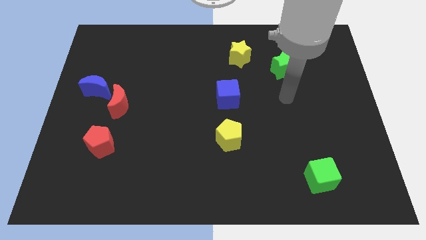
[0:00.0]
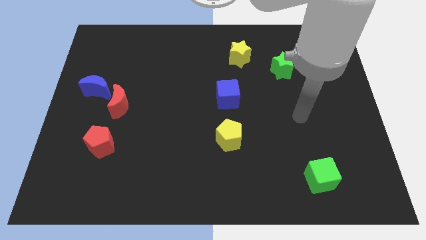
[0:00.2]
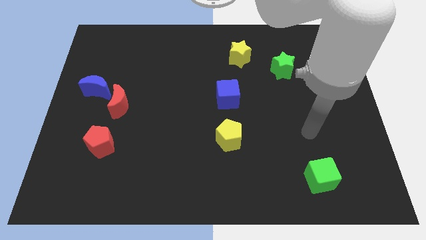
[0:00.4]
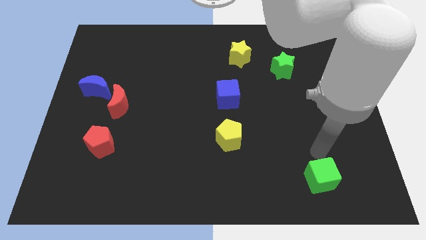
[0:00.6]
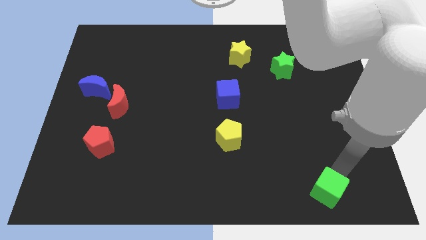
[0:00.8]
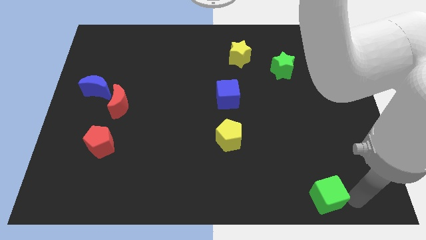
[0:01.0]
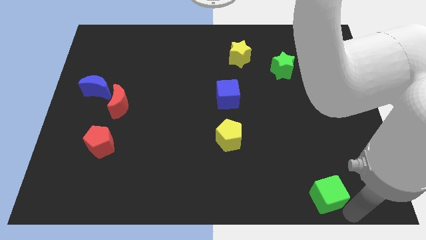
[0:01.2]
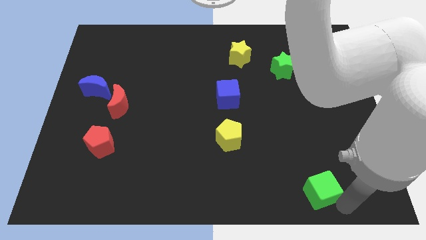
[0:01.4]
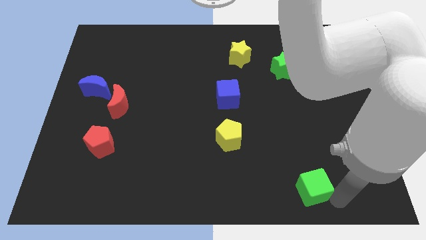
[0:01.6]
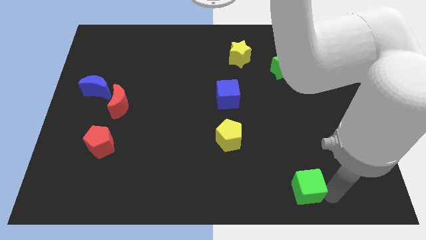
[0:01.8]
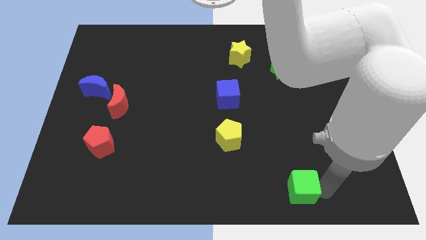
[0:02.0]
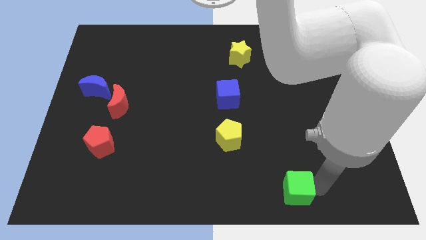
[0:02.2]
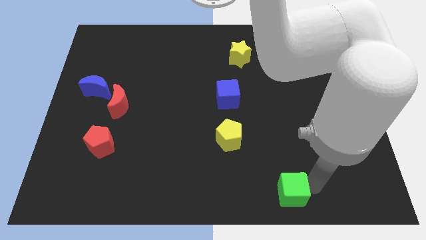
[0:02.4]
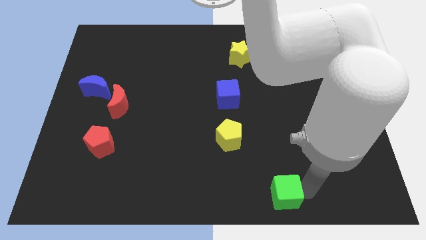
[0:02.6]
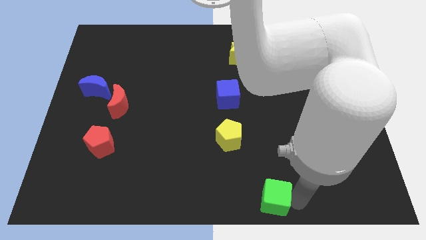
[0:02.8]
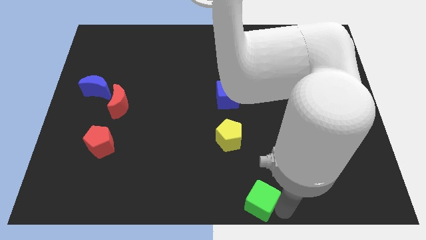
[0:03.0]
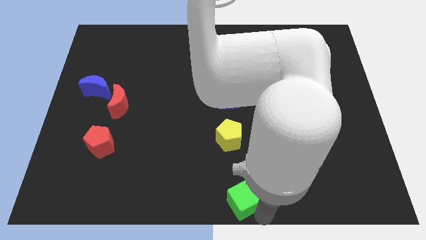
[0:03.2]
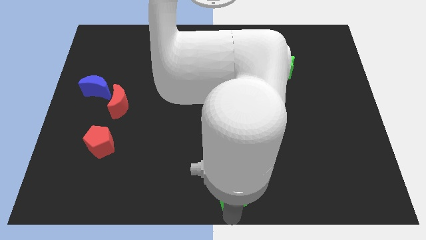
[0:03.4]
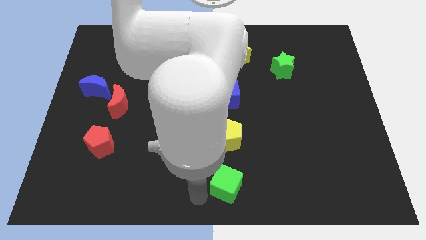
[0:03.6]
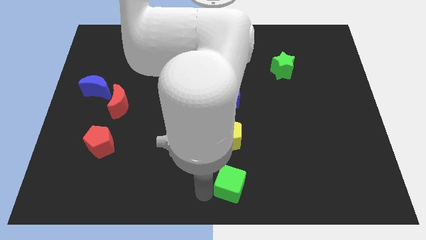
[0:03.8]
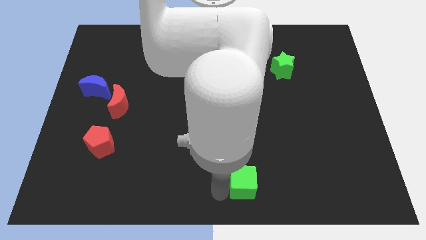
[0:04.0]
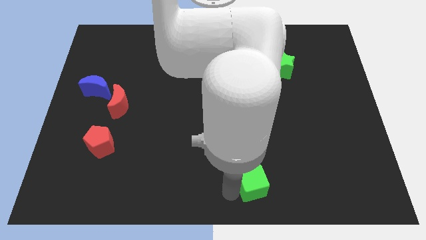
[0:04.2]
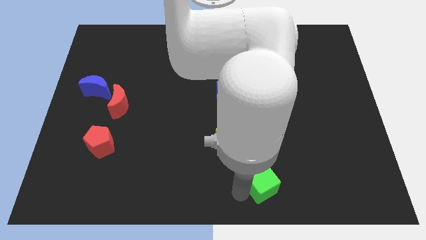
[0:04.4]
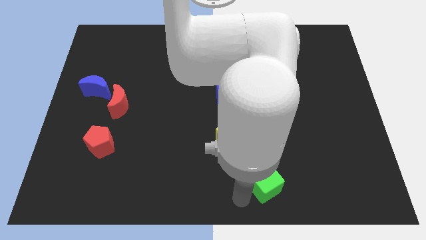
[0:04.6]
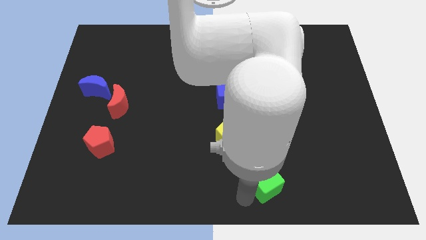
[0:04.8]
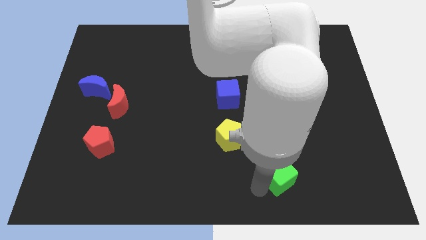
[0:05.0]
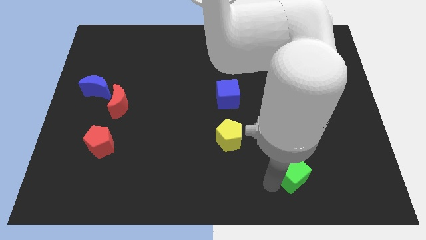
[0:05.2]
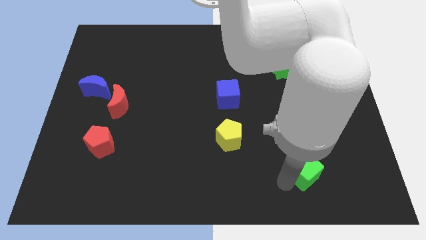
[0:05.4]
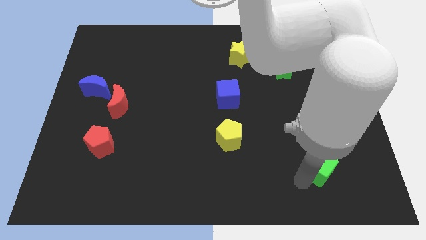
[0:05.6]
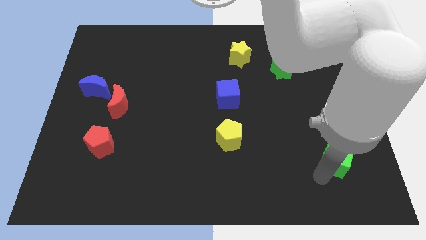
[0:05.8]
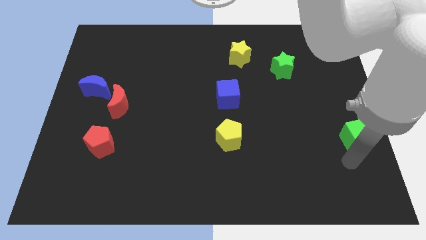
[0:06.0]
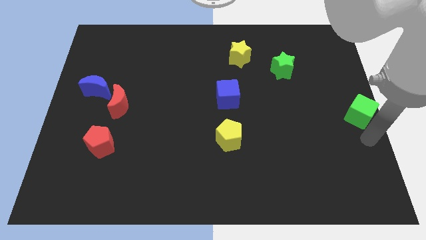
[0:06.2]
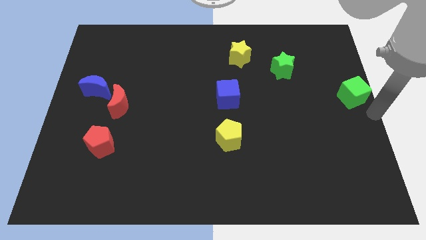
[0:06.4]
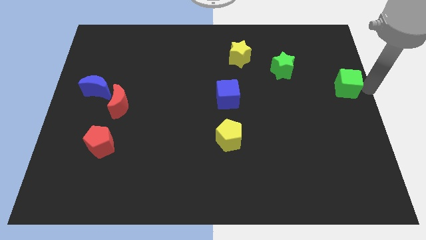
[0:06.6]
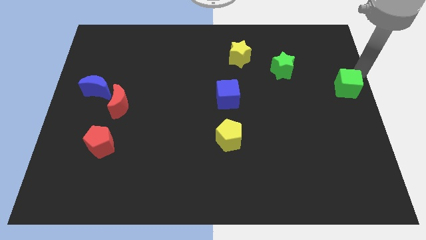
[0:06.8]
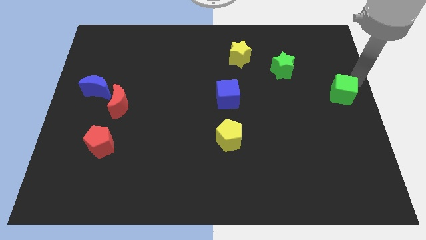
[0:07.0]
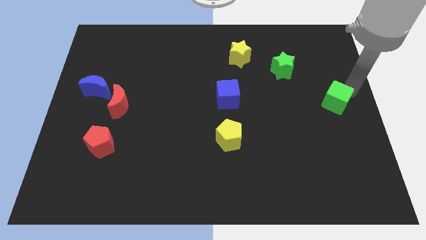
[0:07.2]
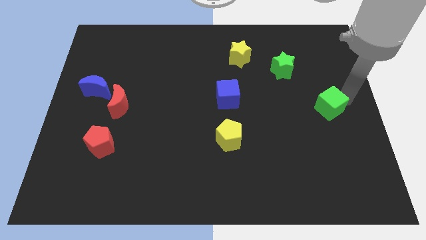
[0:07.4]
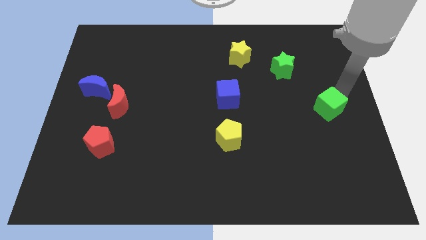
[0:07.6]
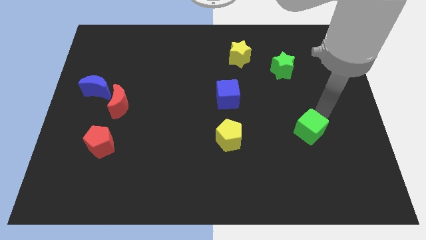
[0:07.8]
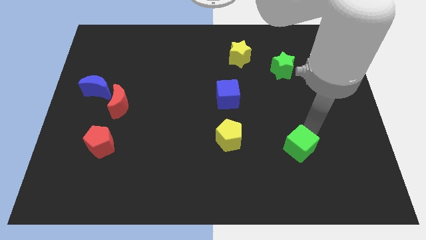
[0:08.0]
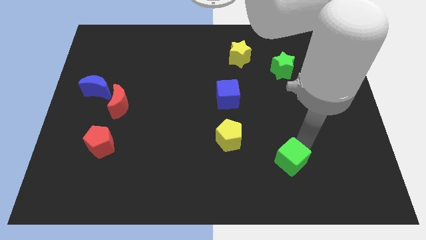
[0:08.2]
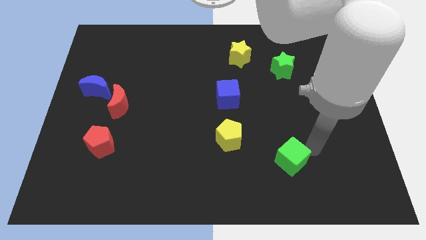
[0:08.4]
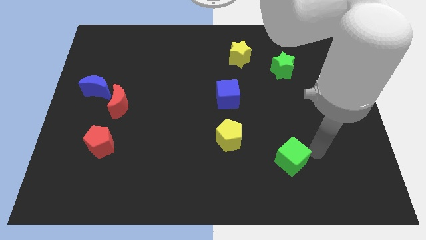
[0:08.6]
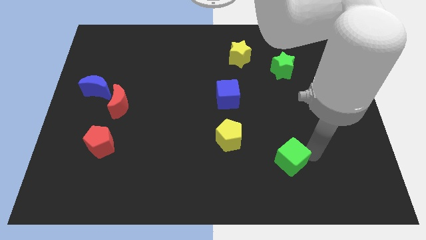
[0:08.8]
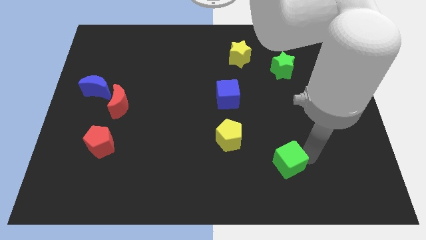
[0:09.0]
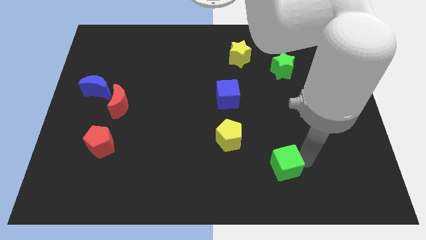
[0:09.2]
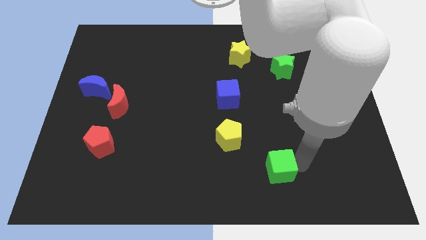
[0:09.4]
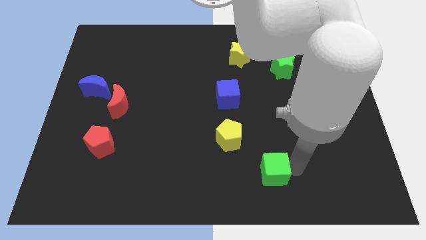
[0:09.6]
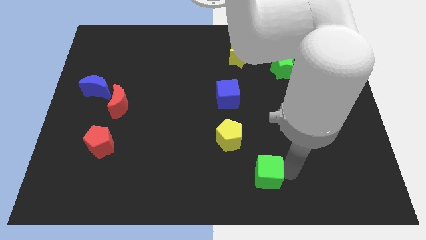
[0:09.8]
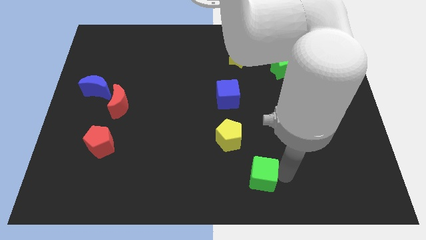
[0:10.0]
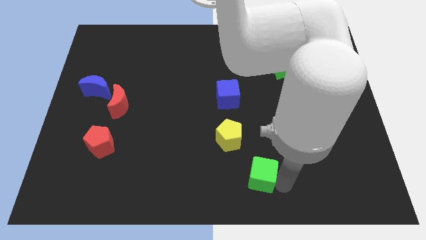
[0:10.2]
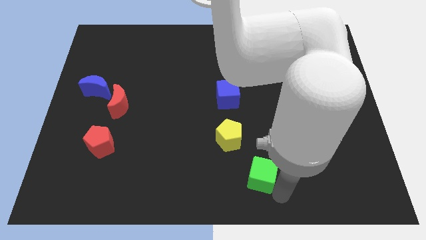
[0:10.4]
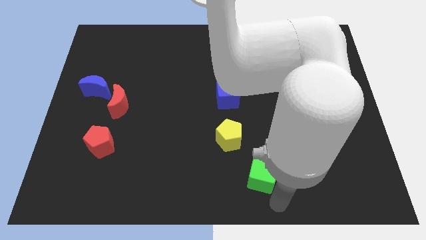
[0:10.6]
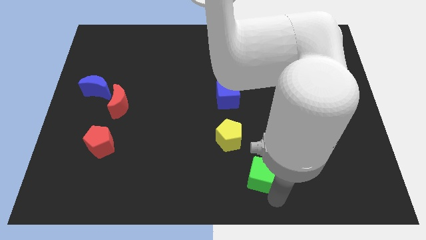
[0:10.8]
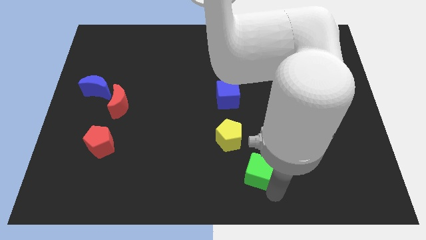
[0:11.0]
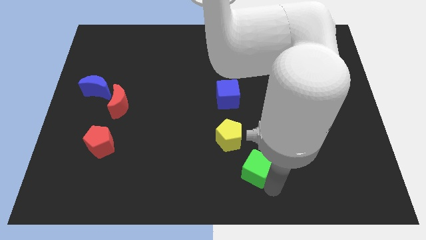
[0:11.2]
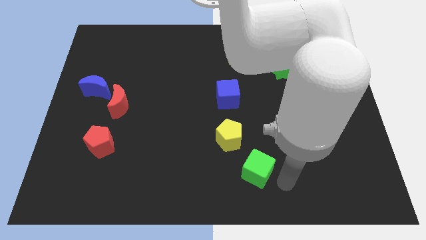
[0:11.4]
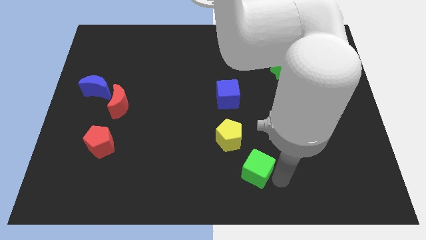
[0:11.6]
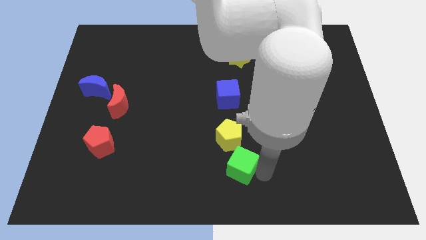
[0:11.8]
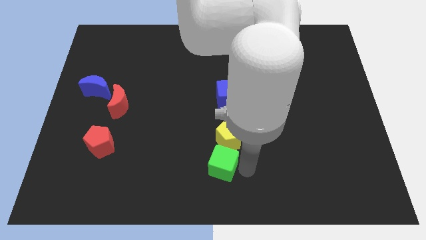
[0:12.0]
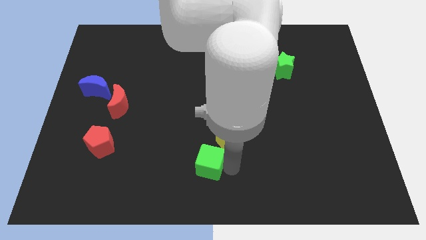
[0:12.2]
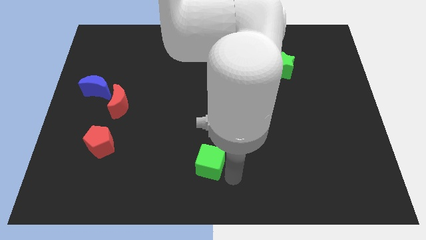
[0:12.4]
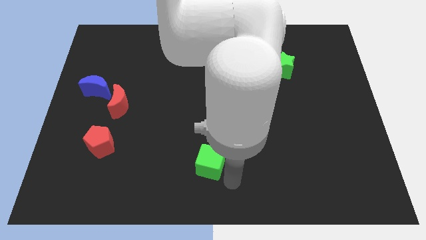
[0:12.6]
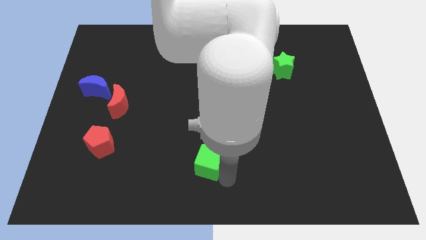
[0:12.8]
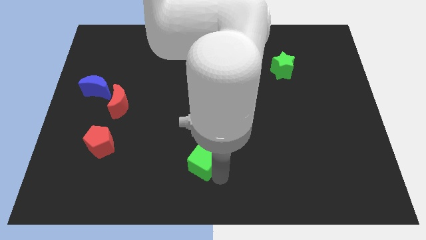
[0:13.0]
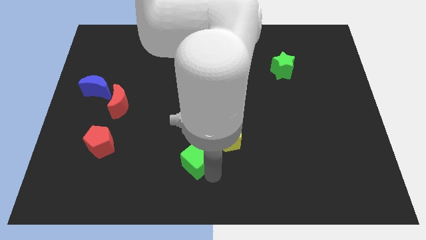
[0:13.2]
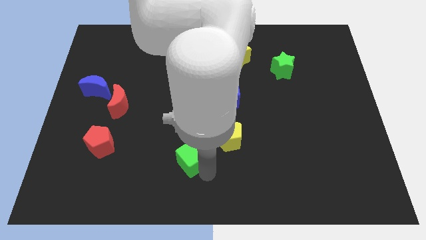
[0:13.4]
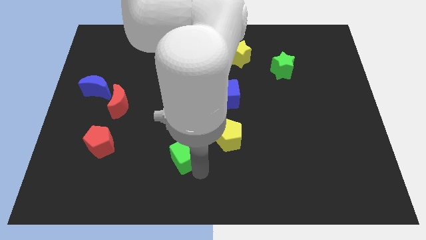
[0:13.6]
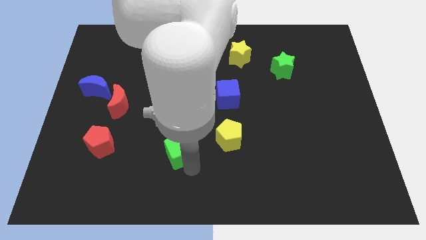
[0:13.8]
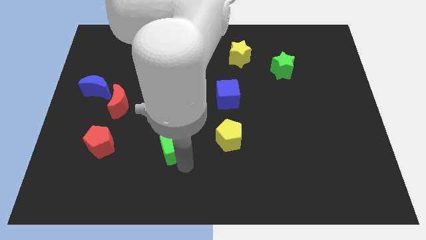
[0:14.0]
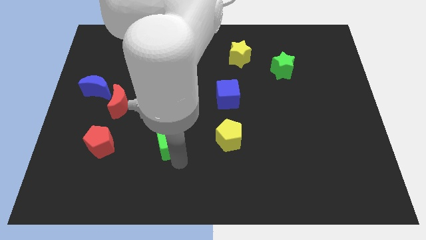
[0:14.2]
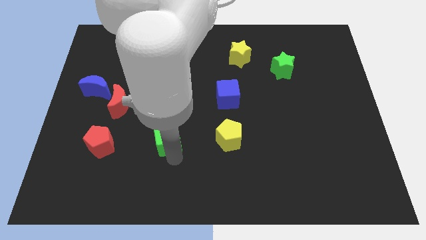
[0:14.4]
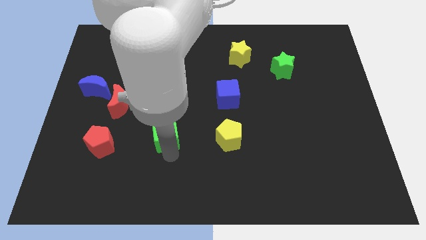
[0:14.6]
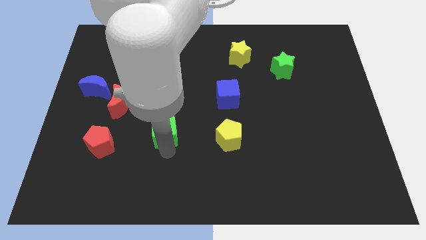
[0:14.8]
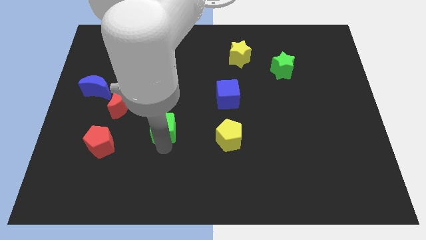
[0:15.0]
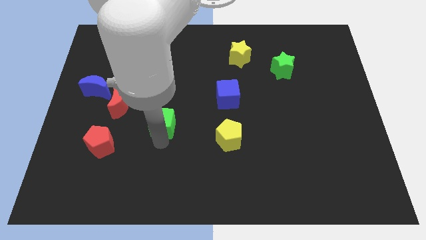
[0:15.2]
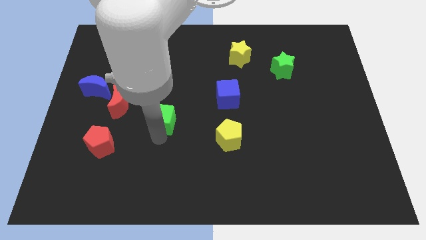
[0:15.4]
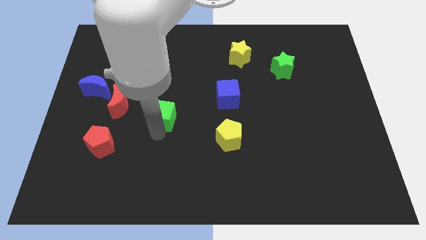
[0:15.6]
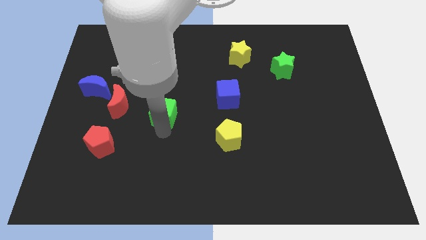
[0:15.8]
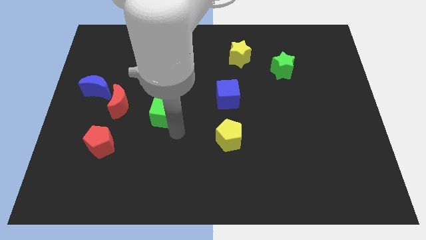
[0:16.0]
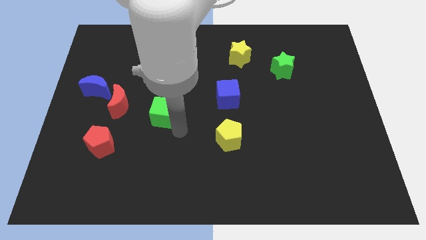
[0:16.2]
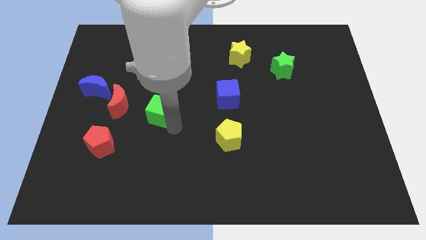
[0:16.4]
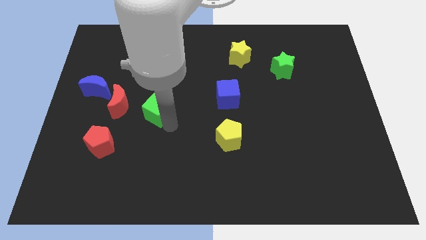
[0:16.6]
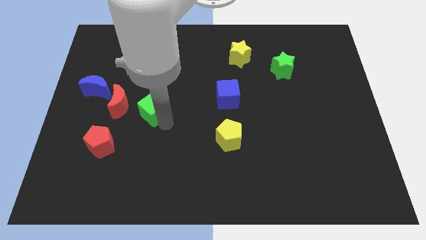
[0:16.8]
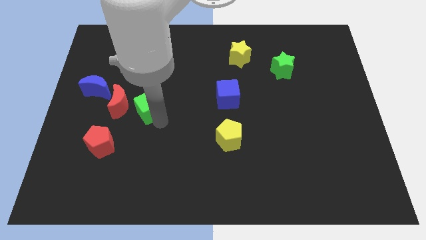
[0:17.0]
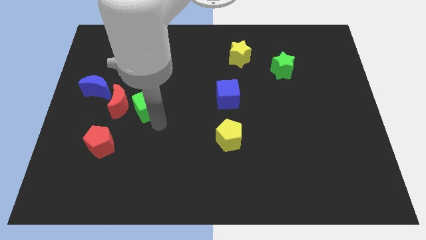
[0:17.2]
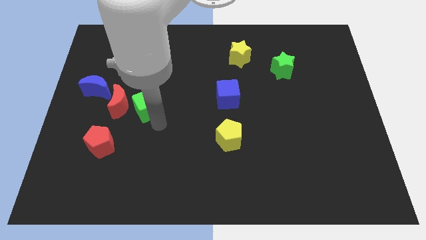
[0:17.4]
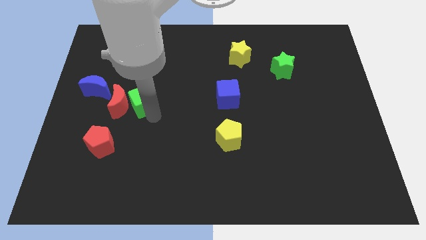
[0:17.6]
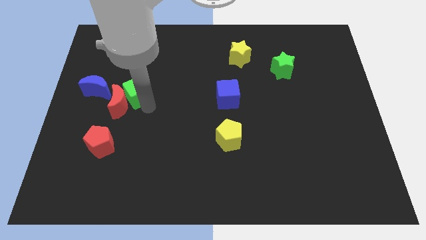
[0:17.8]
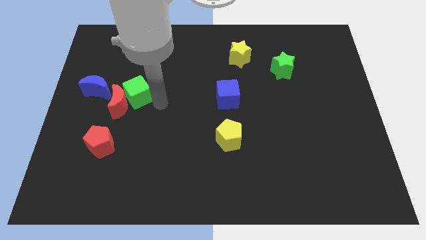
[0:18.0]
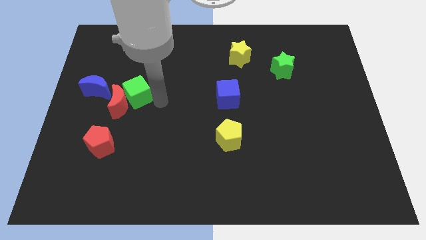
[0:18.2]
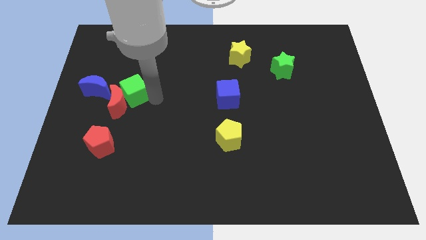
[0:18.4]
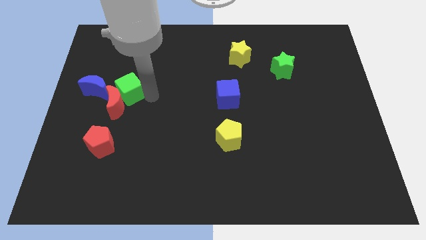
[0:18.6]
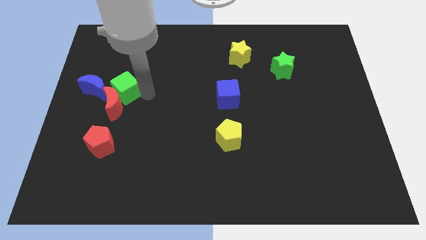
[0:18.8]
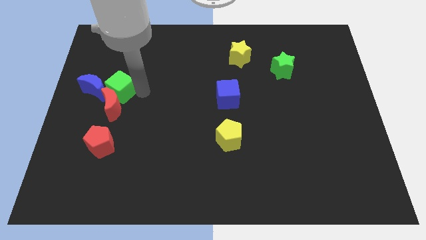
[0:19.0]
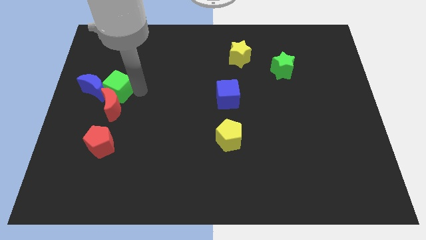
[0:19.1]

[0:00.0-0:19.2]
move the green cube next to the blue moon
